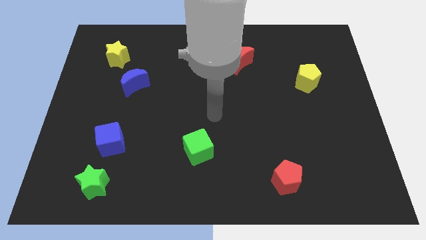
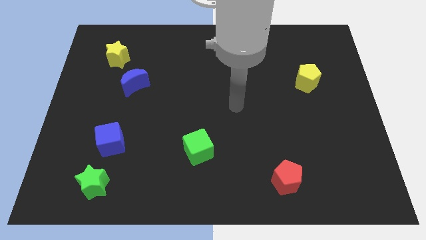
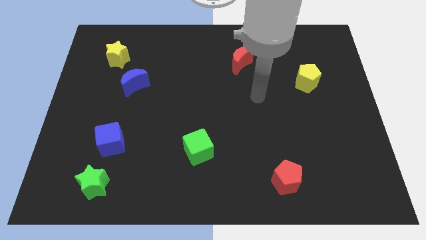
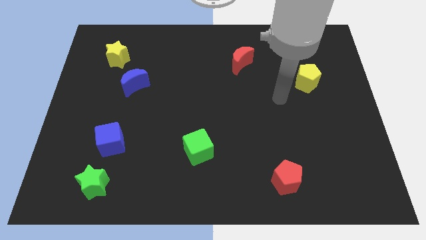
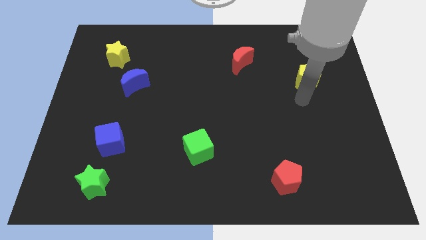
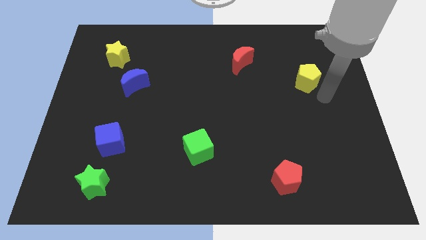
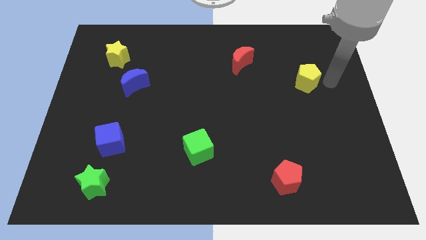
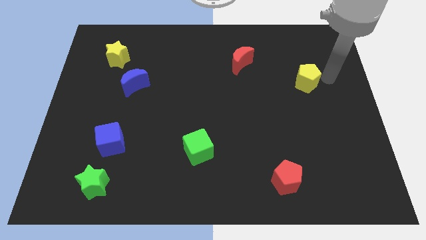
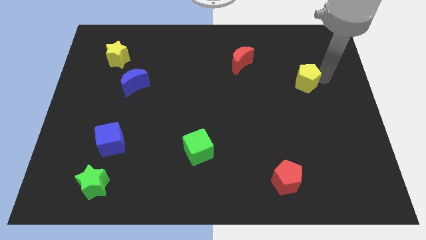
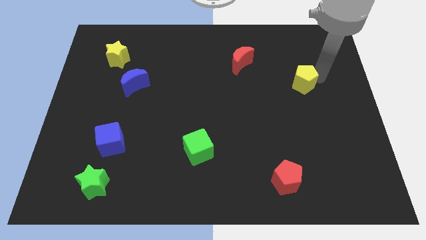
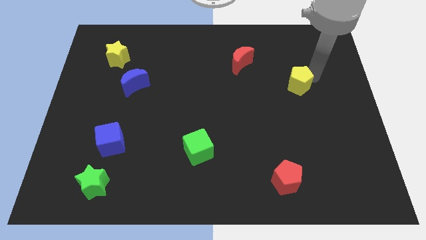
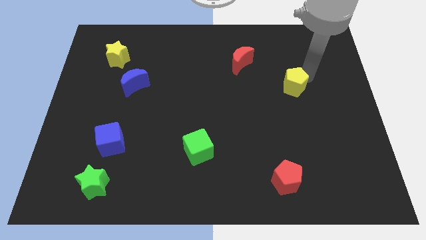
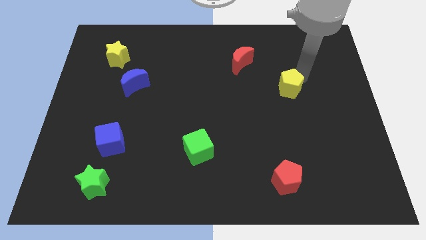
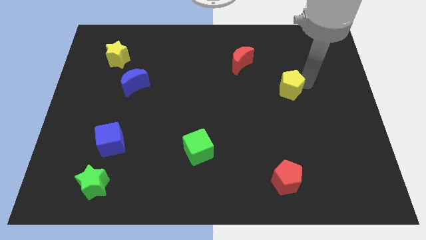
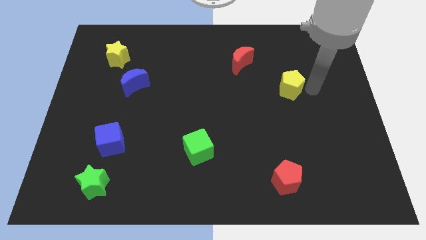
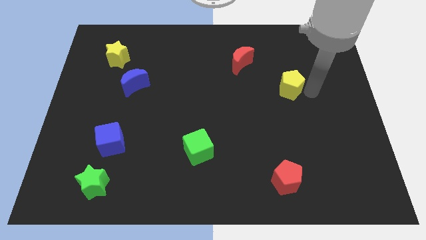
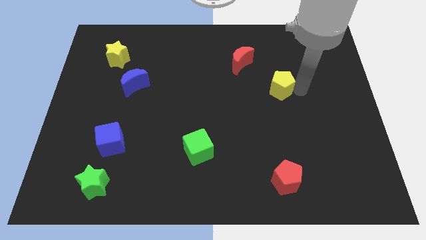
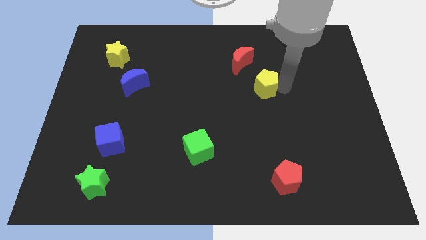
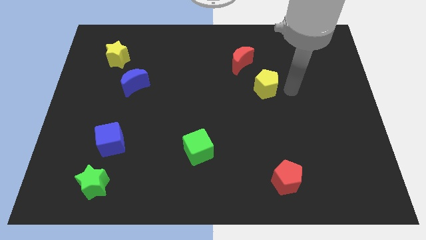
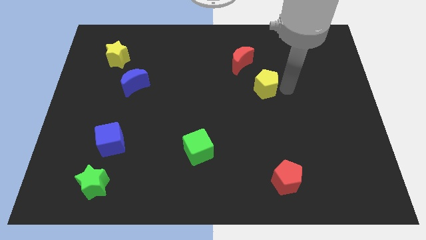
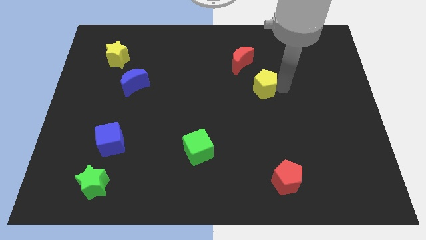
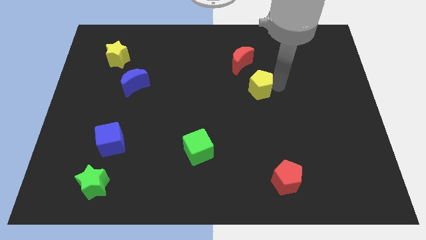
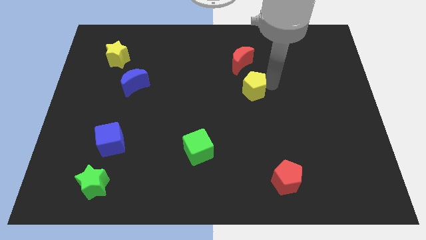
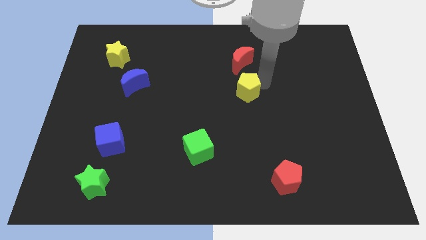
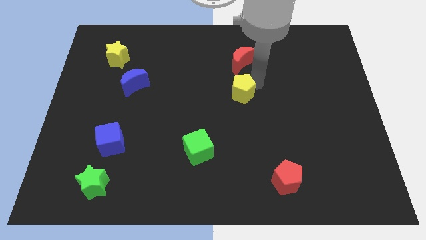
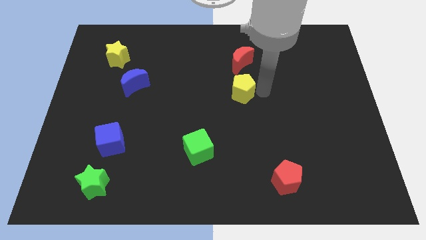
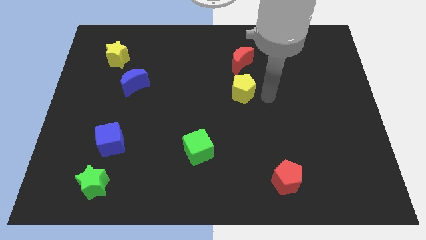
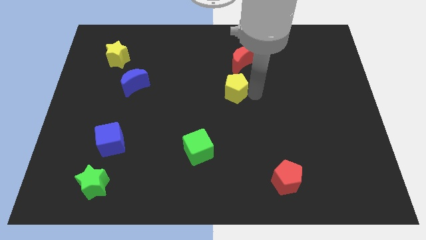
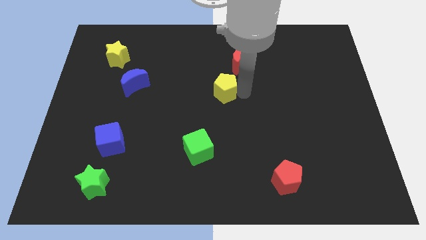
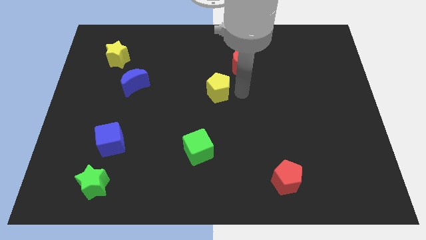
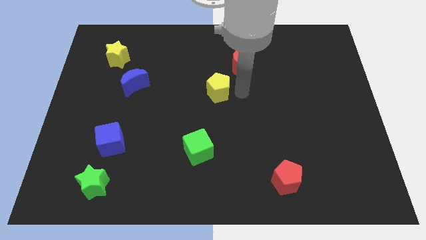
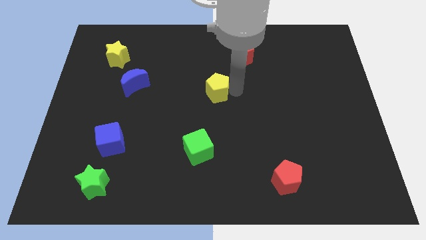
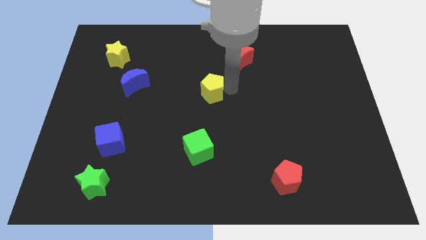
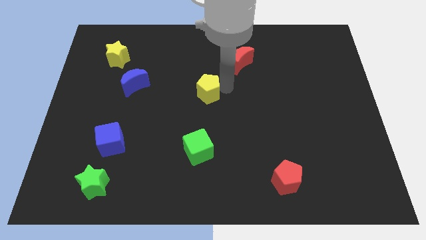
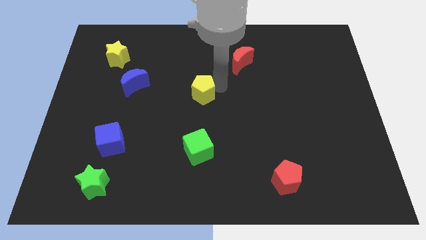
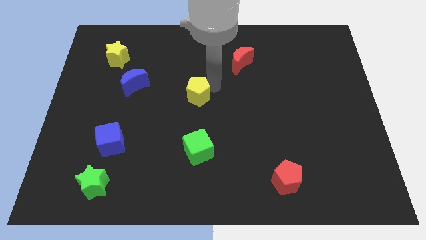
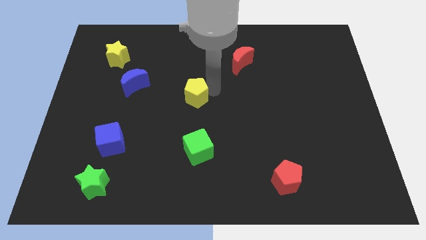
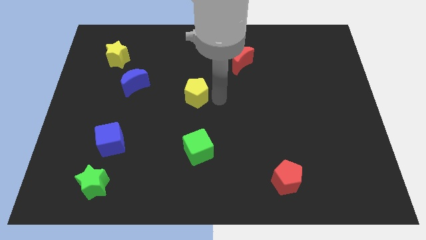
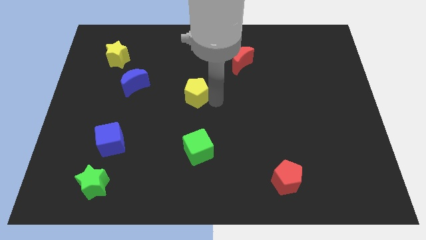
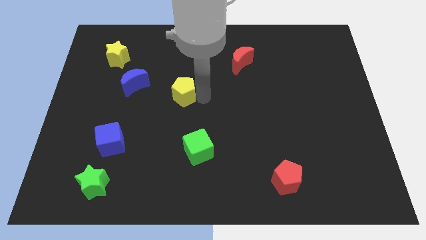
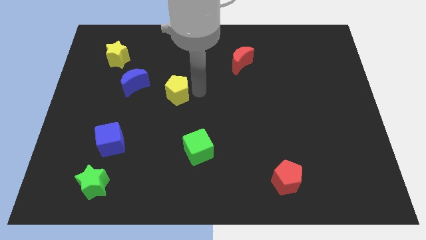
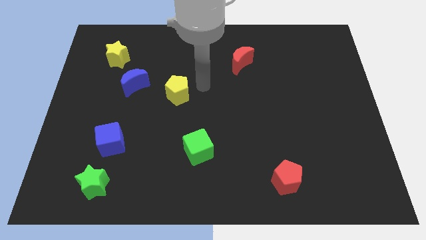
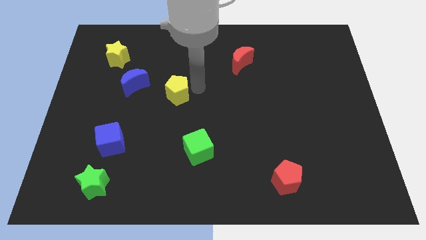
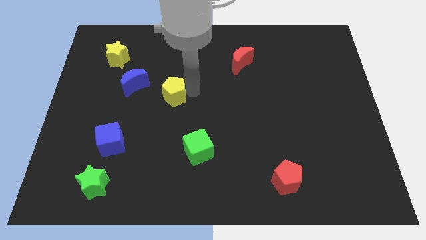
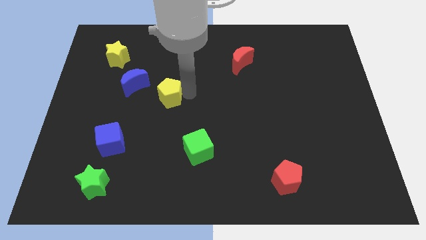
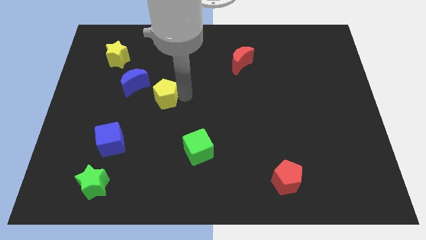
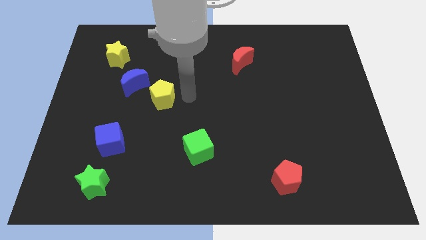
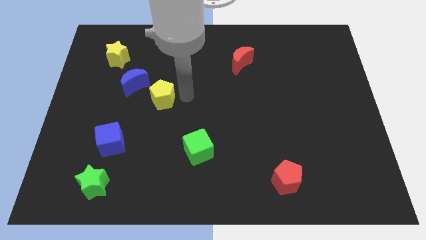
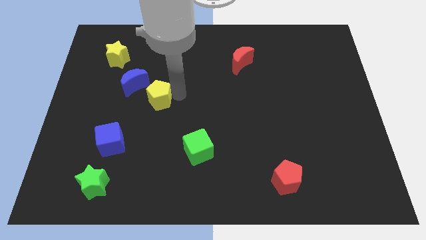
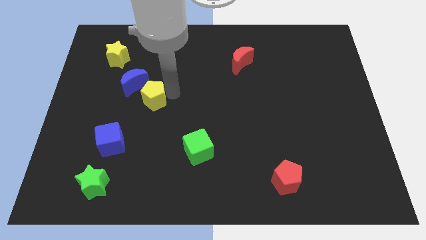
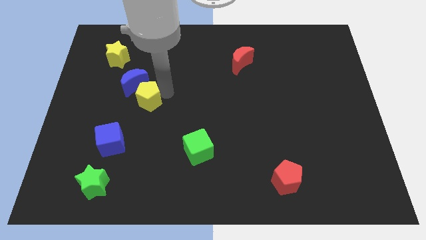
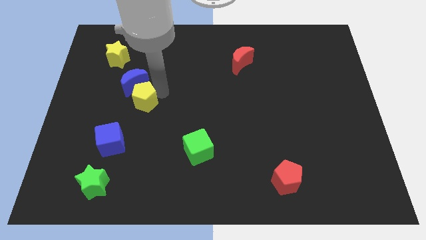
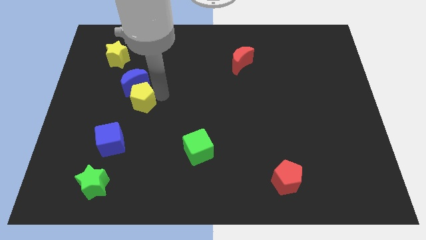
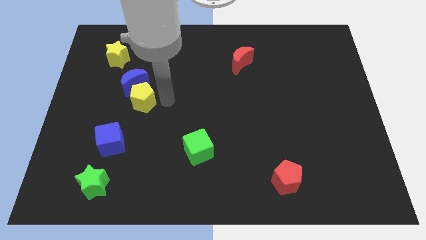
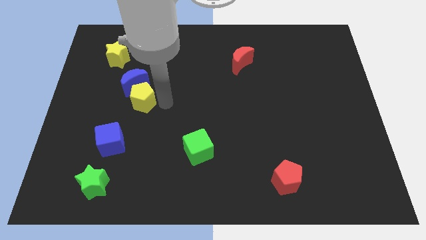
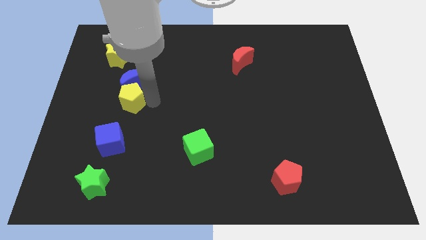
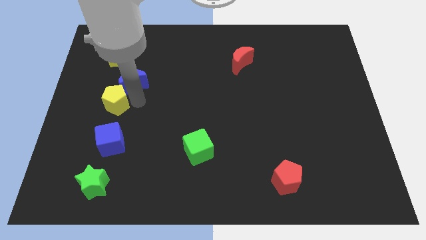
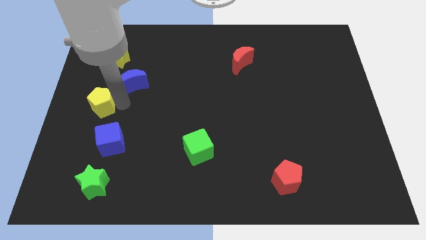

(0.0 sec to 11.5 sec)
push the yellow pentagon to the center left

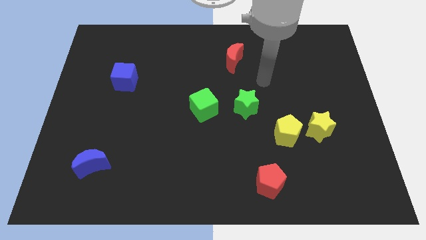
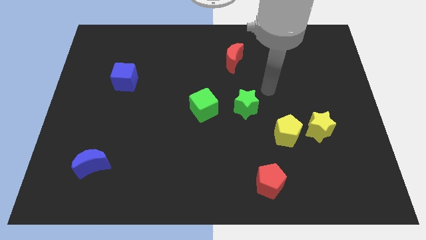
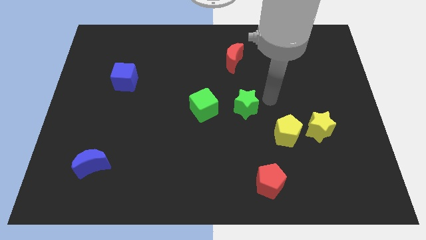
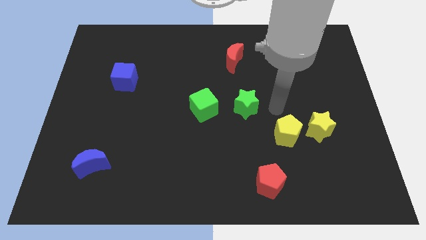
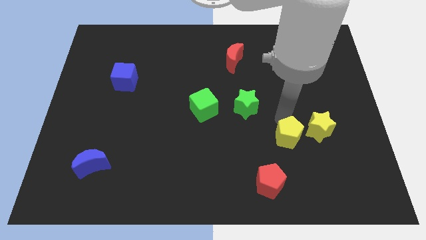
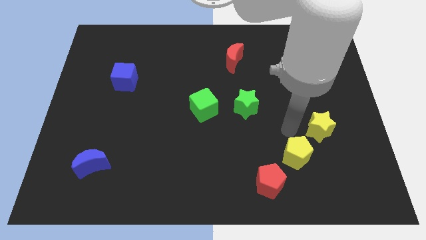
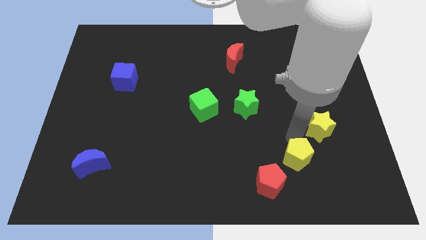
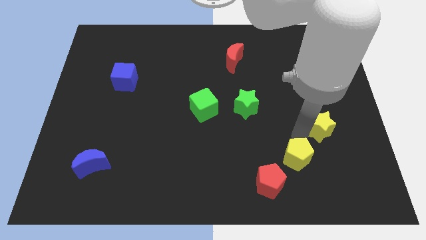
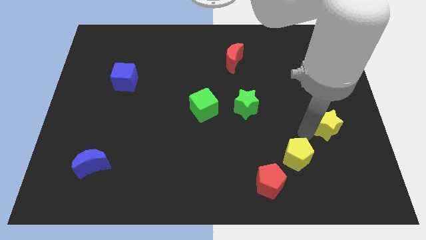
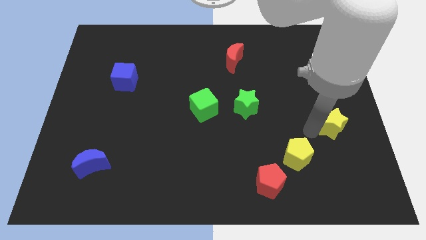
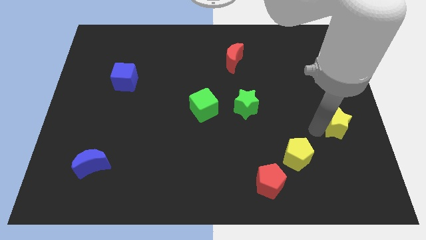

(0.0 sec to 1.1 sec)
slide the yellow star to the right side

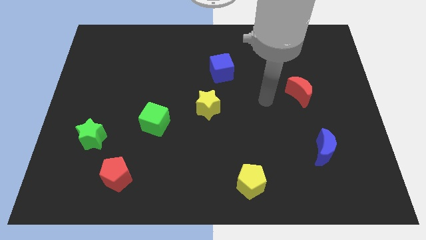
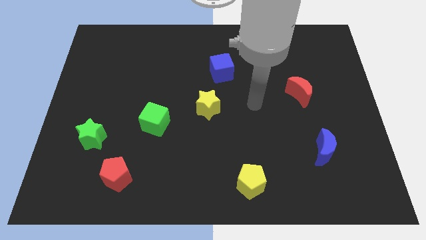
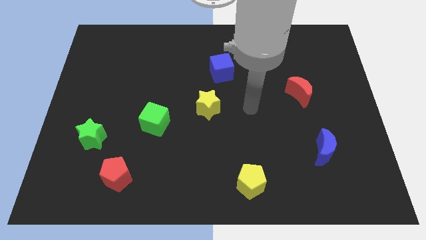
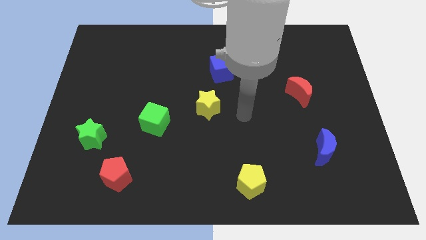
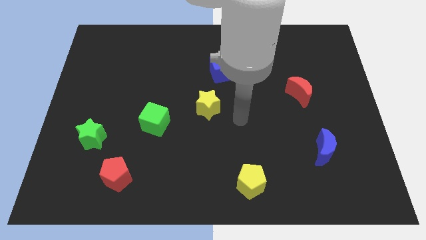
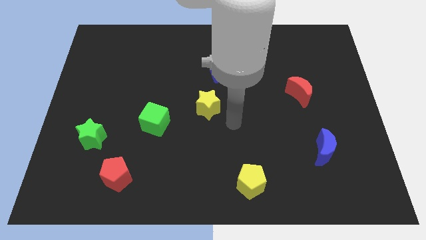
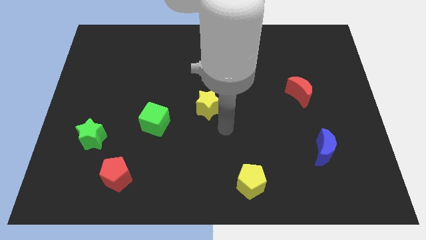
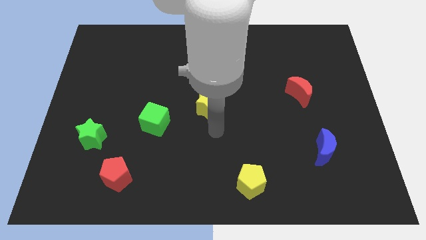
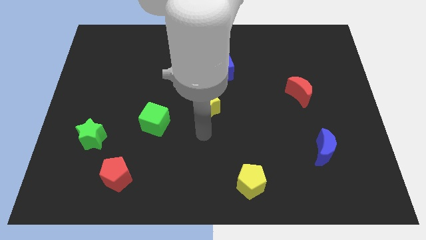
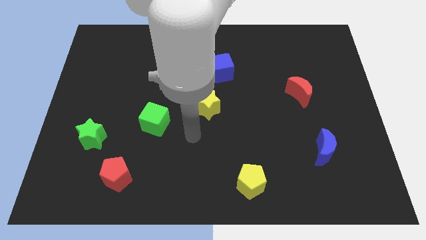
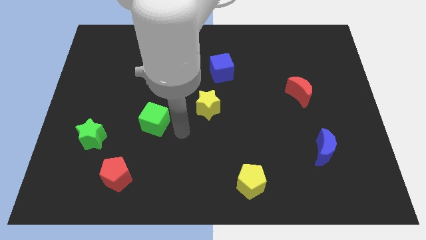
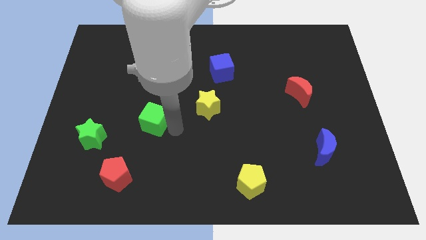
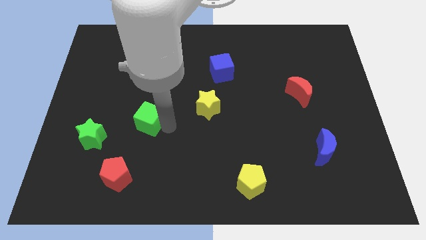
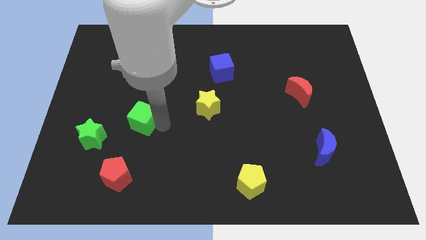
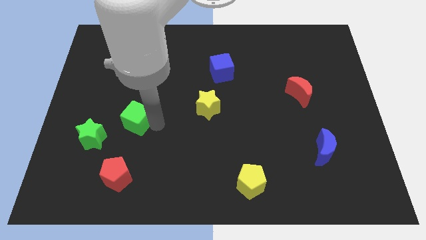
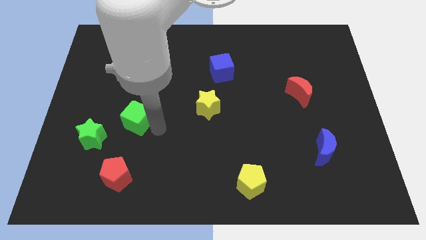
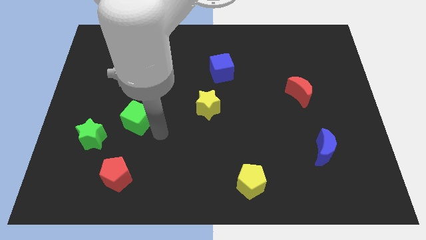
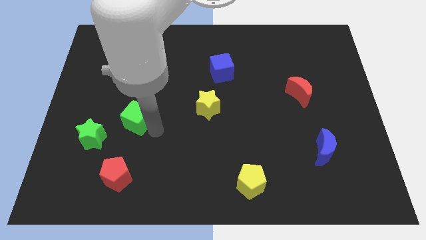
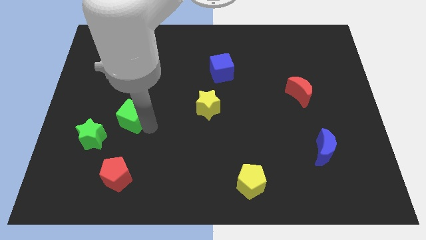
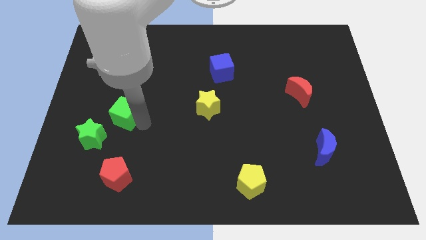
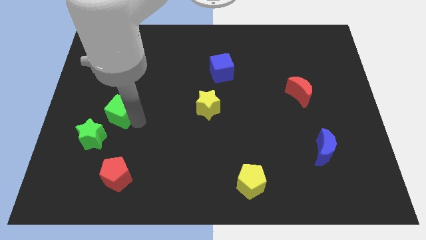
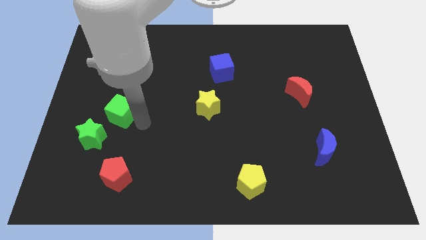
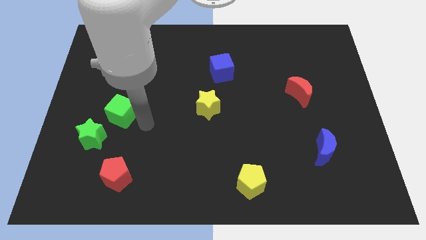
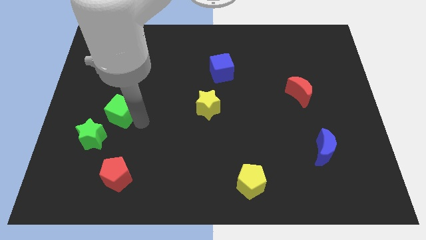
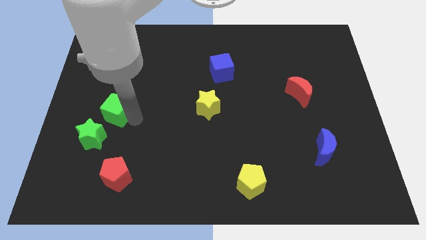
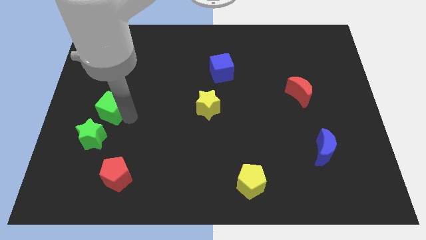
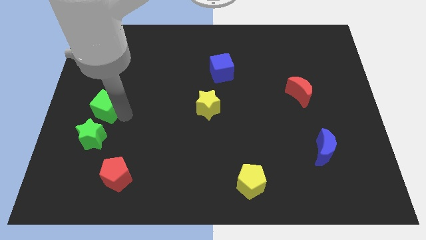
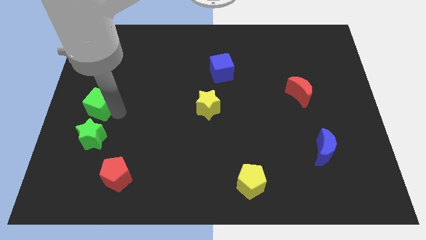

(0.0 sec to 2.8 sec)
slide the green cube to the left side of the board
